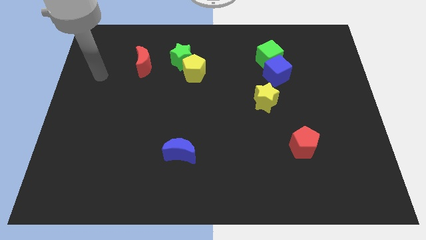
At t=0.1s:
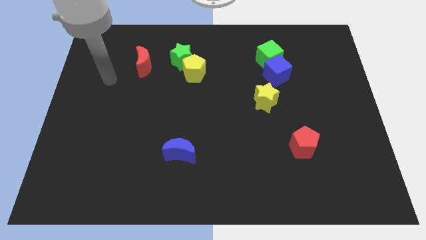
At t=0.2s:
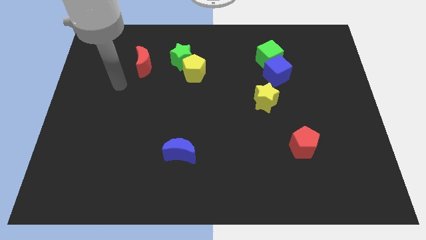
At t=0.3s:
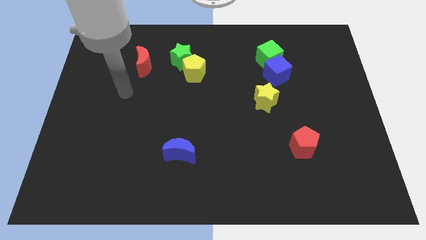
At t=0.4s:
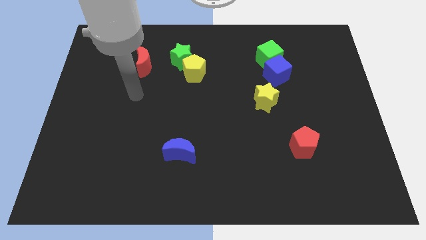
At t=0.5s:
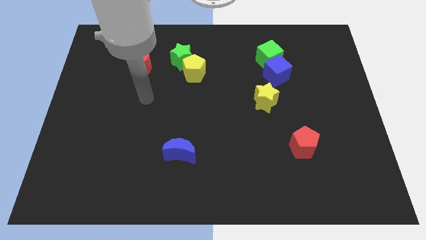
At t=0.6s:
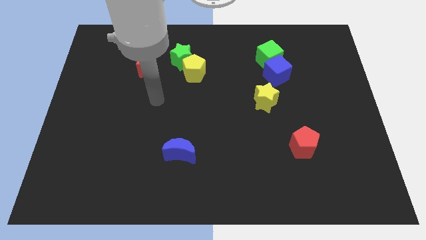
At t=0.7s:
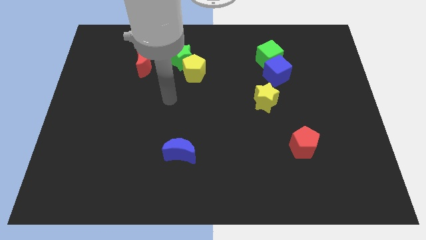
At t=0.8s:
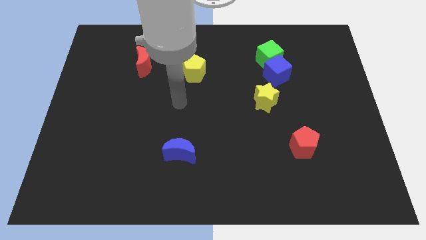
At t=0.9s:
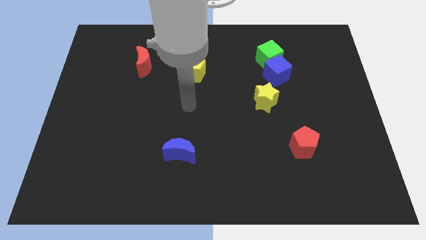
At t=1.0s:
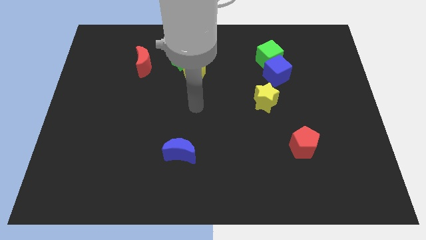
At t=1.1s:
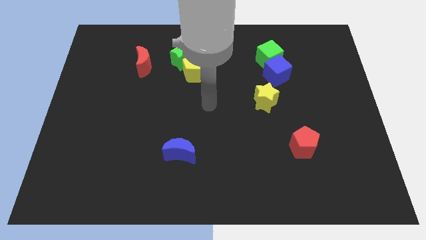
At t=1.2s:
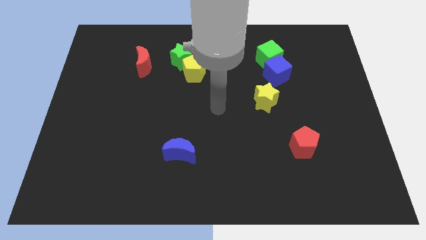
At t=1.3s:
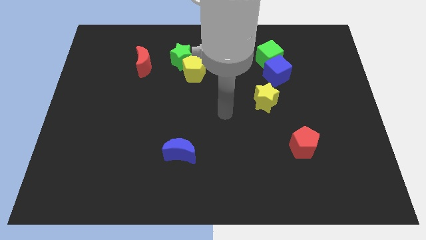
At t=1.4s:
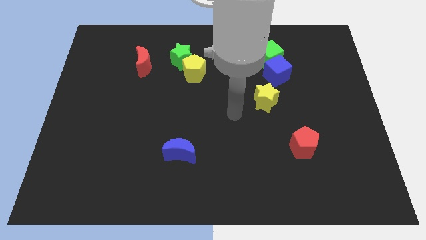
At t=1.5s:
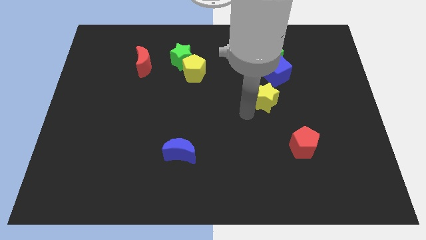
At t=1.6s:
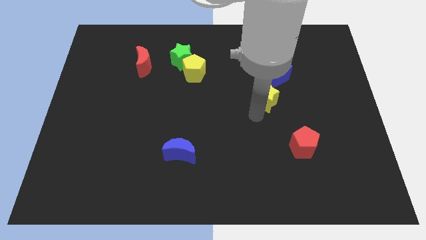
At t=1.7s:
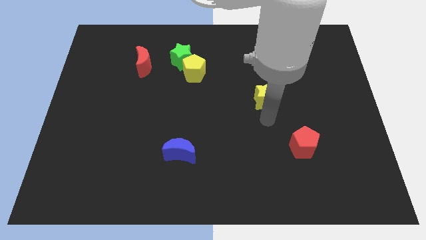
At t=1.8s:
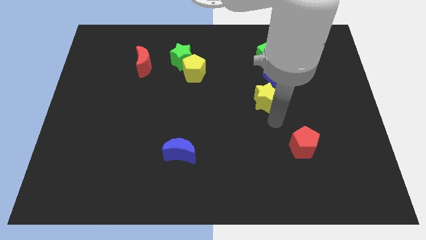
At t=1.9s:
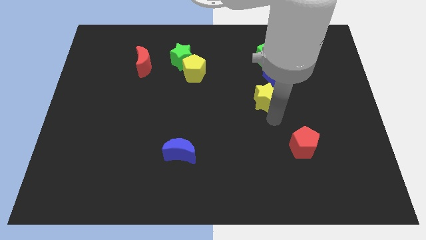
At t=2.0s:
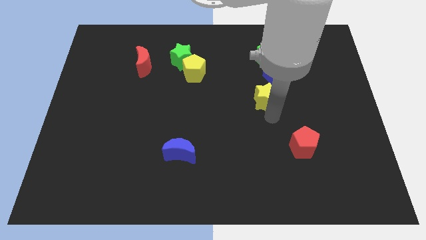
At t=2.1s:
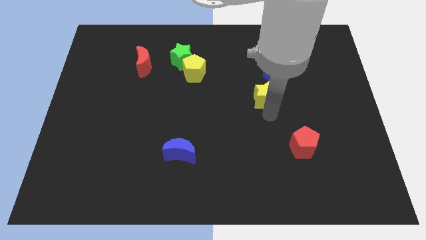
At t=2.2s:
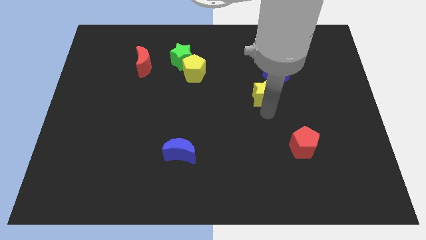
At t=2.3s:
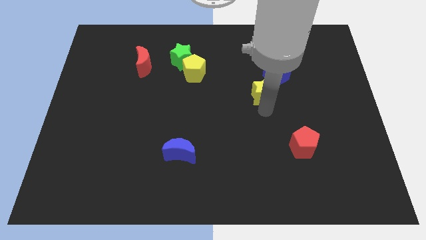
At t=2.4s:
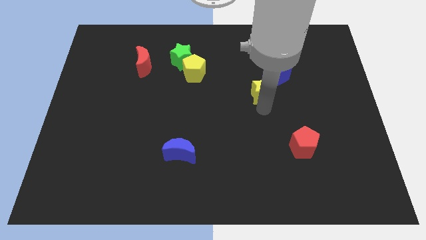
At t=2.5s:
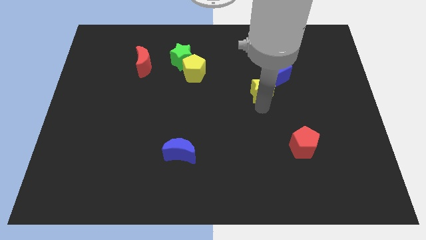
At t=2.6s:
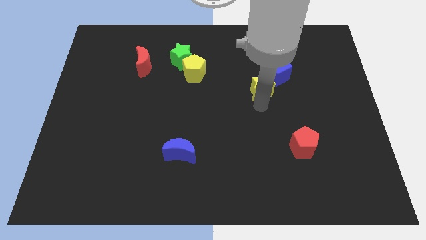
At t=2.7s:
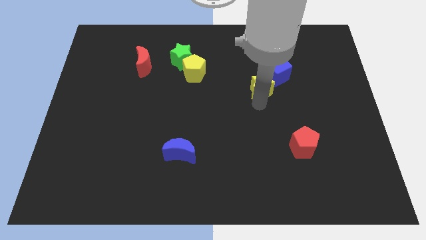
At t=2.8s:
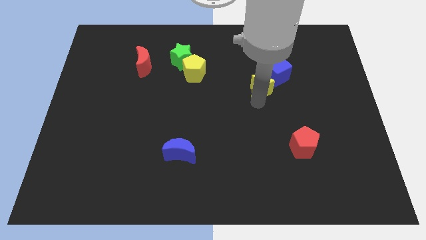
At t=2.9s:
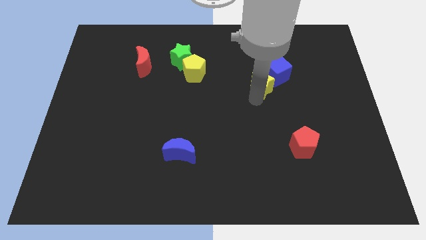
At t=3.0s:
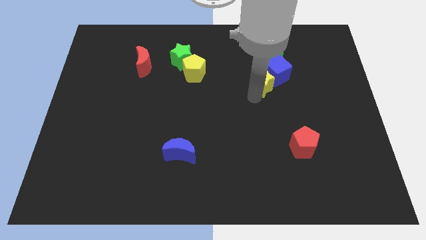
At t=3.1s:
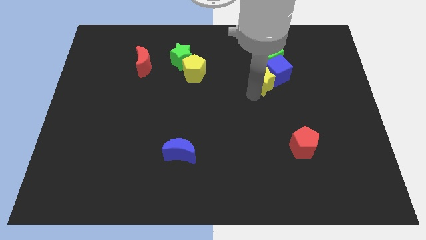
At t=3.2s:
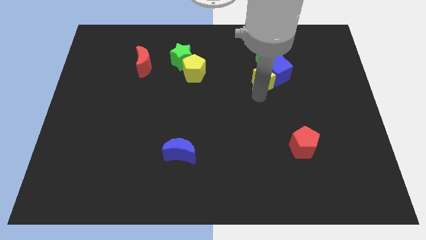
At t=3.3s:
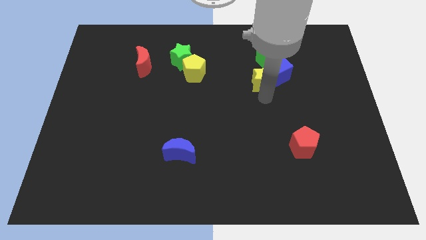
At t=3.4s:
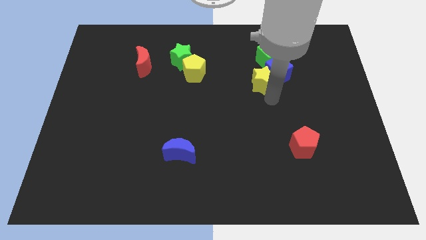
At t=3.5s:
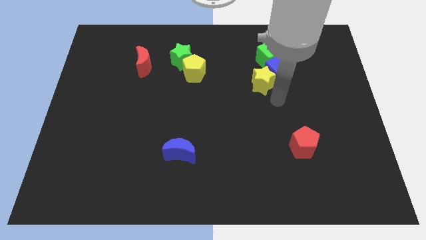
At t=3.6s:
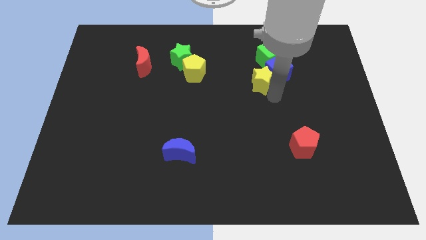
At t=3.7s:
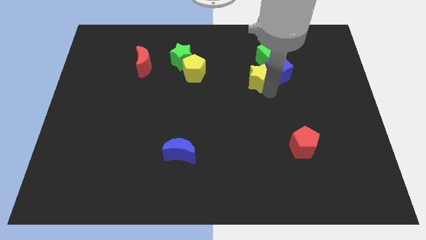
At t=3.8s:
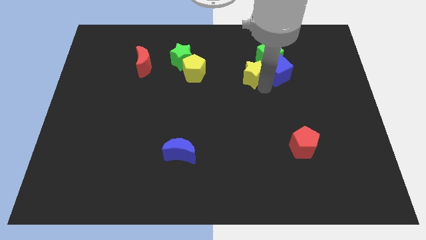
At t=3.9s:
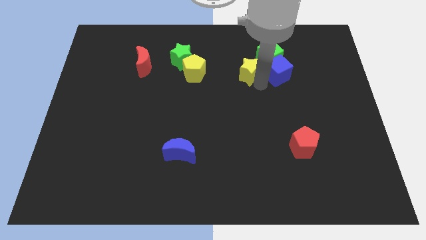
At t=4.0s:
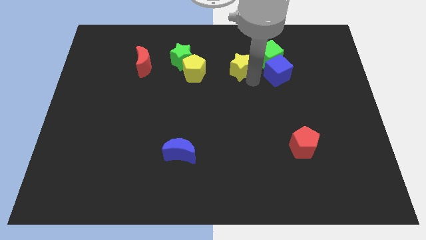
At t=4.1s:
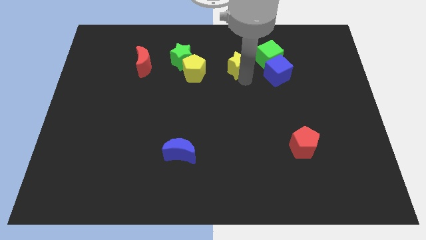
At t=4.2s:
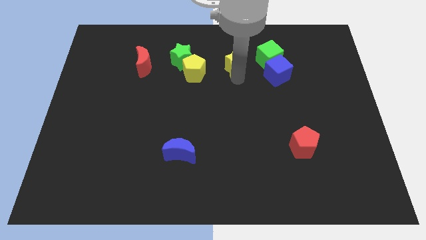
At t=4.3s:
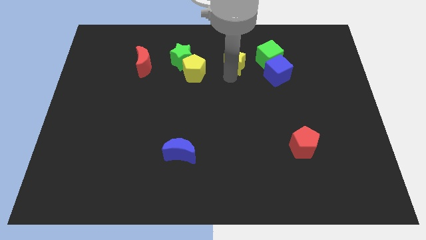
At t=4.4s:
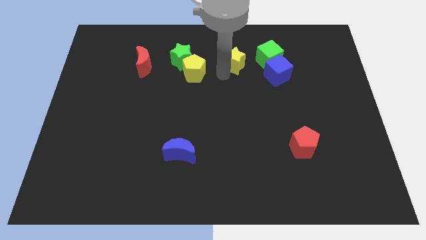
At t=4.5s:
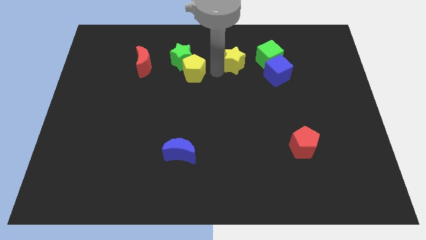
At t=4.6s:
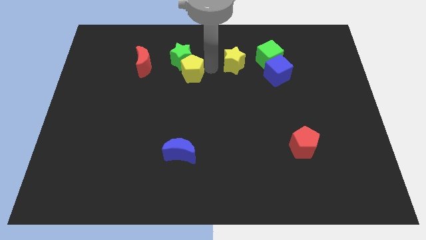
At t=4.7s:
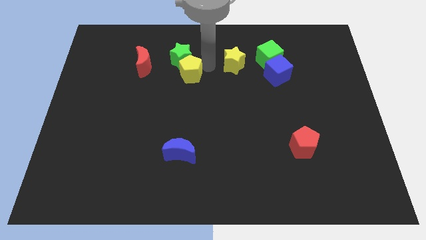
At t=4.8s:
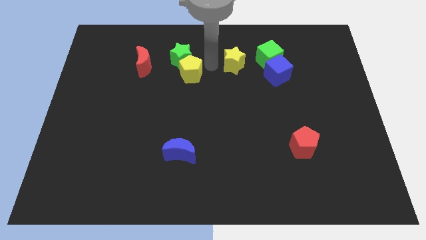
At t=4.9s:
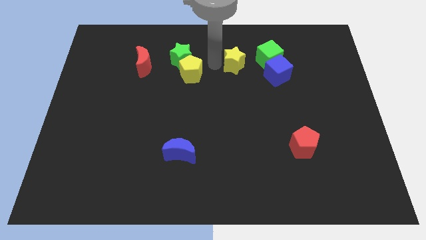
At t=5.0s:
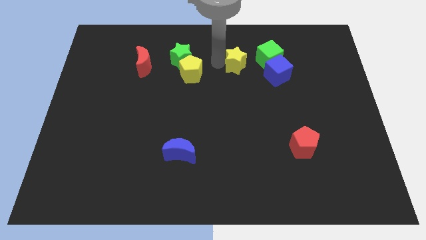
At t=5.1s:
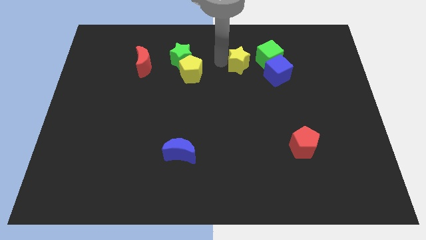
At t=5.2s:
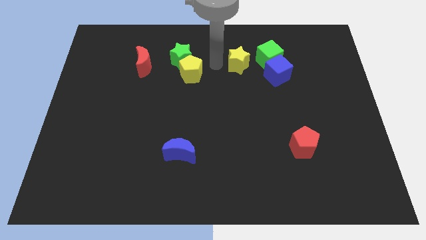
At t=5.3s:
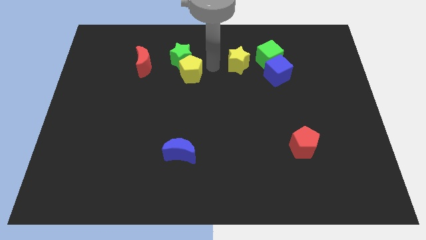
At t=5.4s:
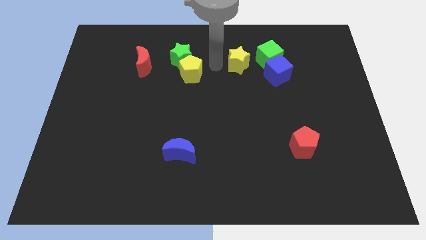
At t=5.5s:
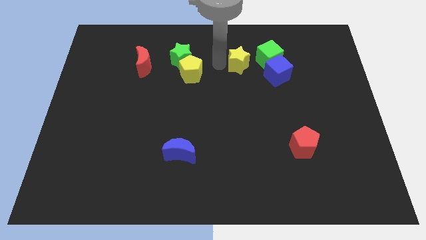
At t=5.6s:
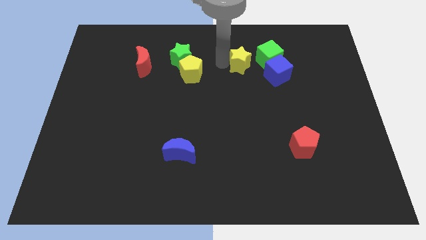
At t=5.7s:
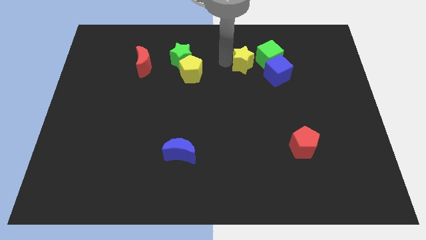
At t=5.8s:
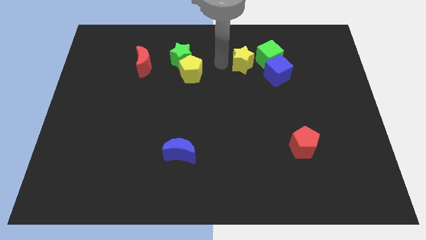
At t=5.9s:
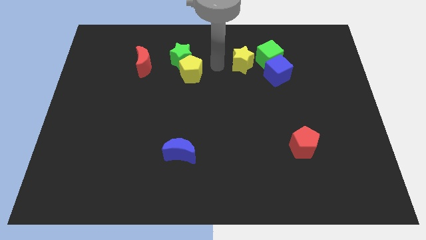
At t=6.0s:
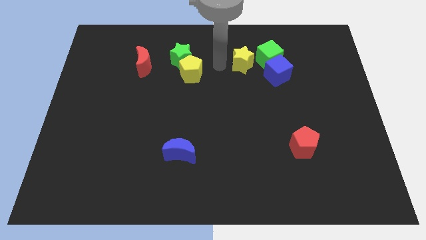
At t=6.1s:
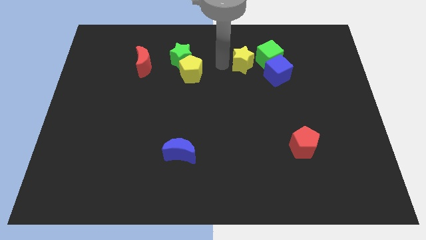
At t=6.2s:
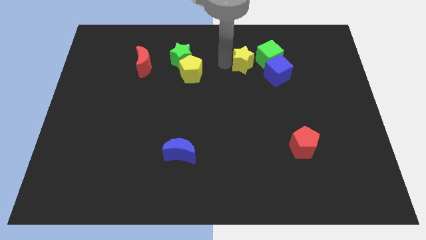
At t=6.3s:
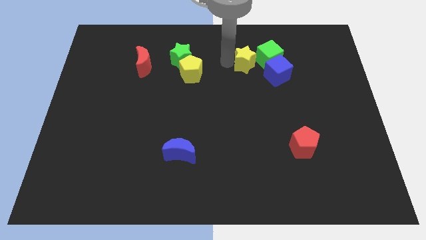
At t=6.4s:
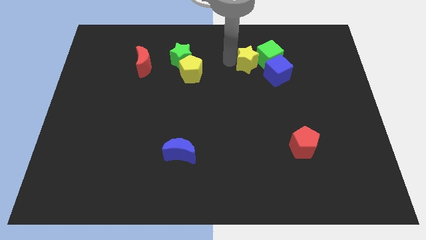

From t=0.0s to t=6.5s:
put the yellow star to the green cube

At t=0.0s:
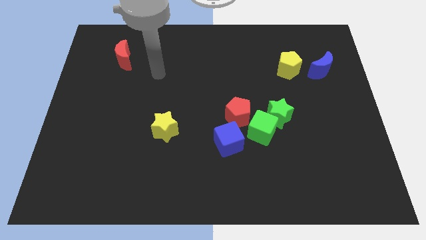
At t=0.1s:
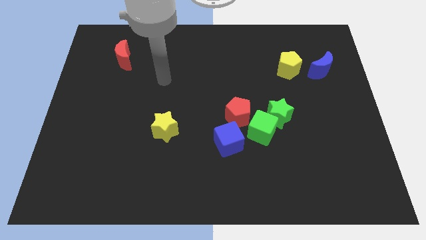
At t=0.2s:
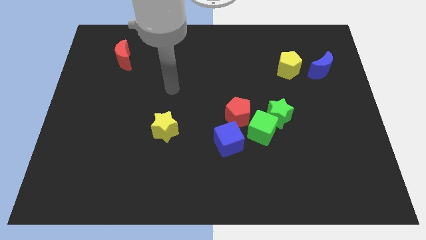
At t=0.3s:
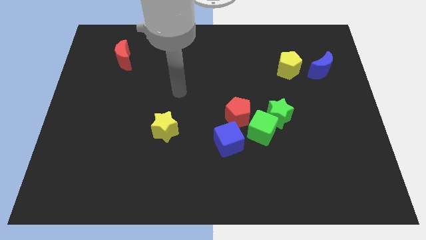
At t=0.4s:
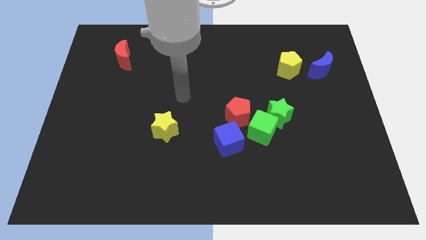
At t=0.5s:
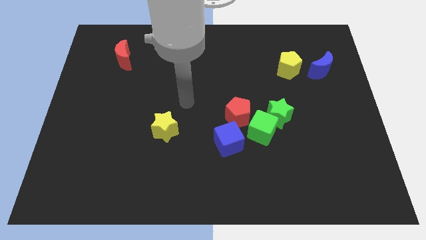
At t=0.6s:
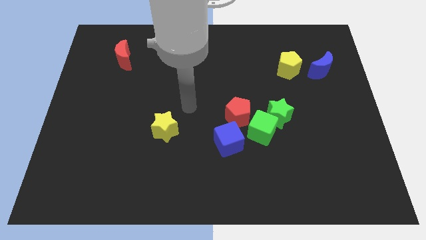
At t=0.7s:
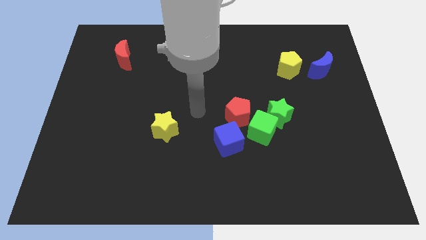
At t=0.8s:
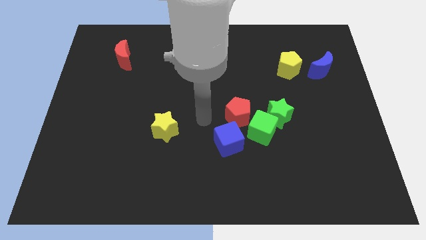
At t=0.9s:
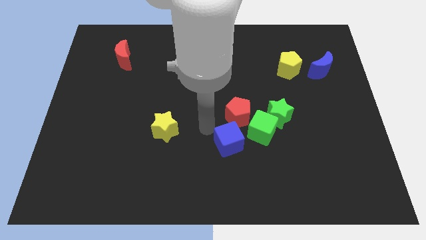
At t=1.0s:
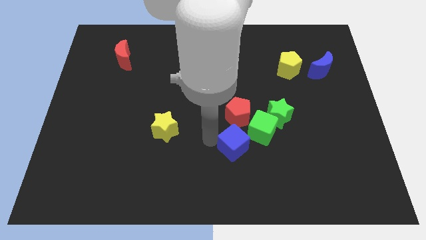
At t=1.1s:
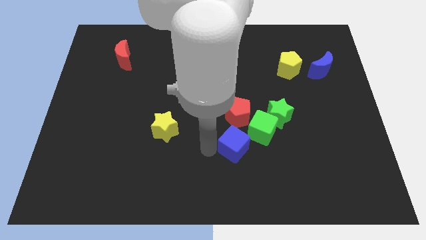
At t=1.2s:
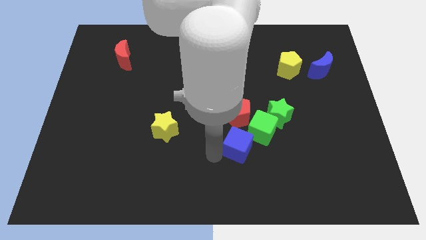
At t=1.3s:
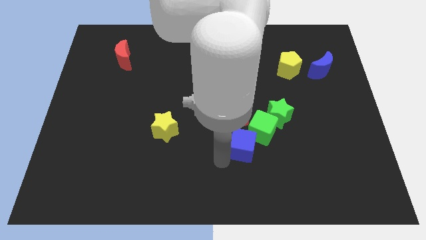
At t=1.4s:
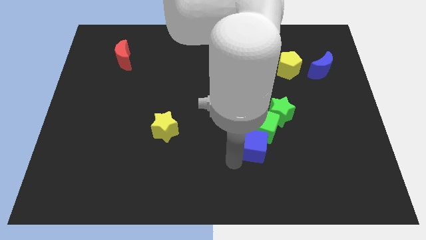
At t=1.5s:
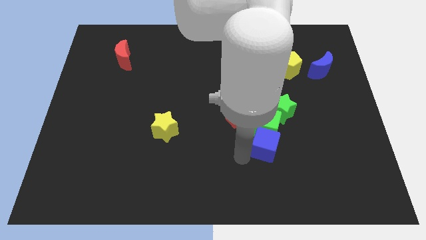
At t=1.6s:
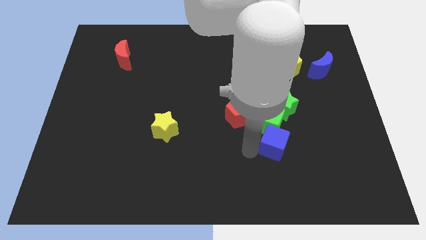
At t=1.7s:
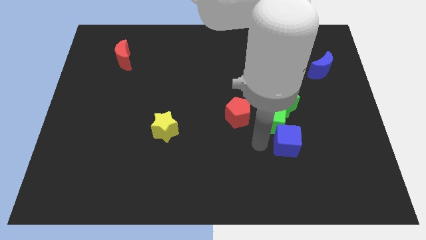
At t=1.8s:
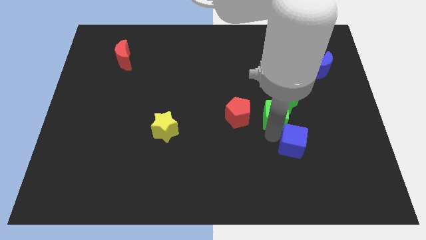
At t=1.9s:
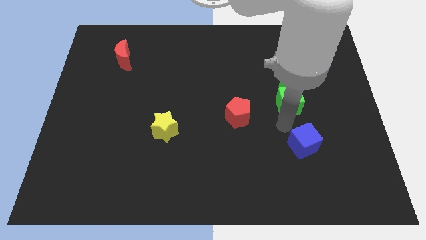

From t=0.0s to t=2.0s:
move the green star close to the yellow pentagon
